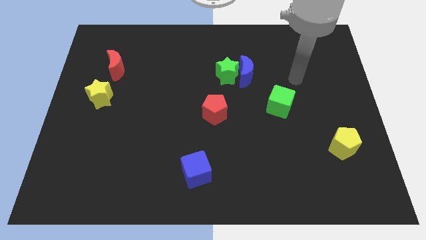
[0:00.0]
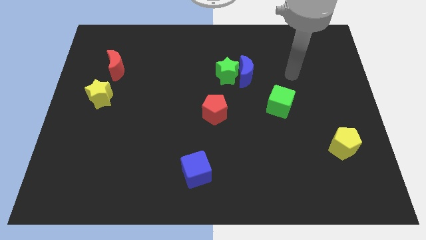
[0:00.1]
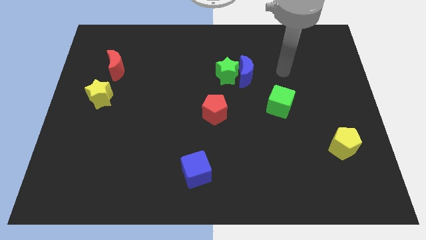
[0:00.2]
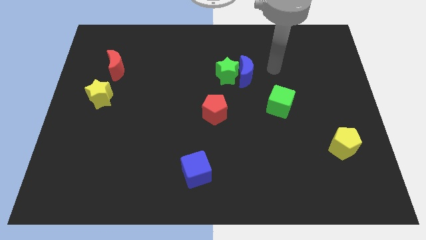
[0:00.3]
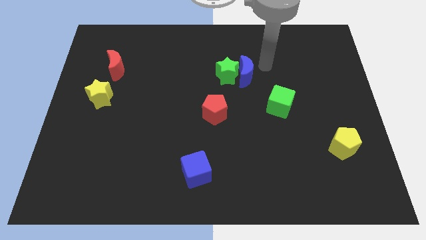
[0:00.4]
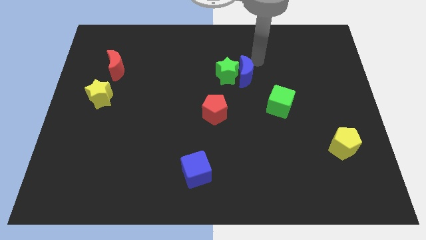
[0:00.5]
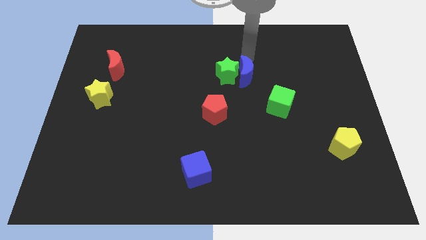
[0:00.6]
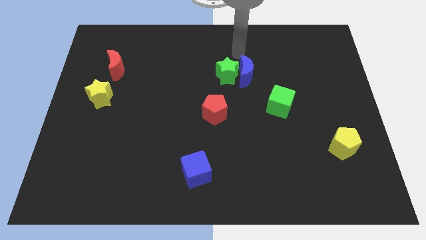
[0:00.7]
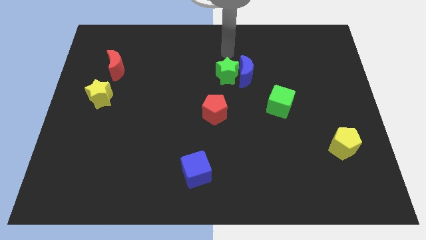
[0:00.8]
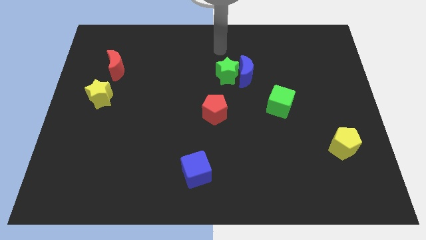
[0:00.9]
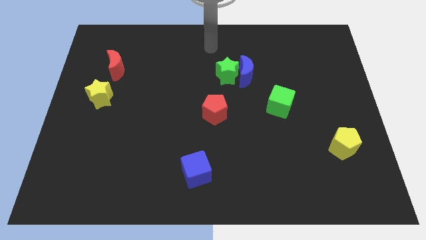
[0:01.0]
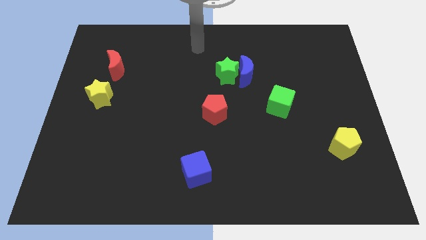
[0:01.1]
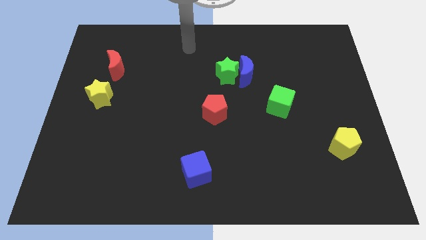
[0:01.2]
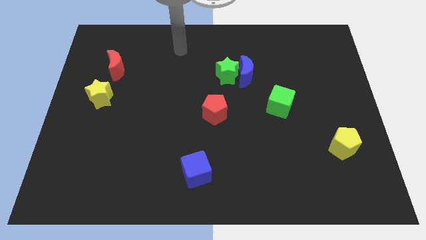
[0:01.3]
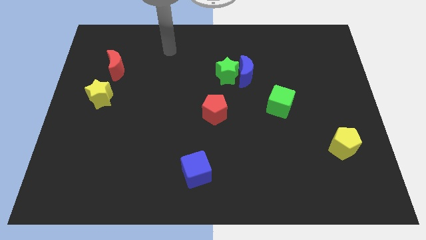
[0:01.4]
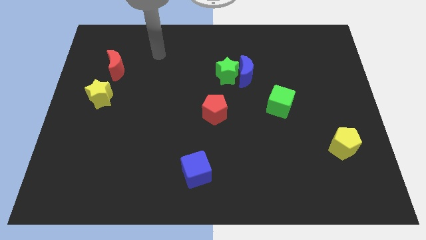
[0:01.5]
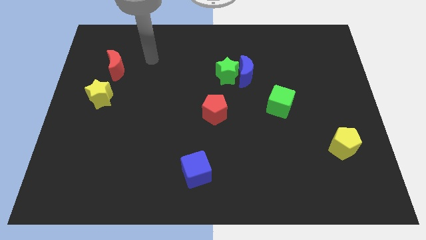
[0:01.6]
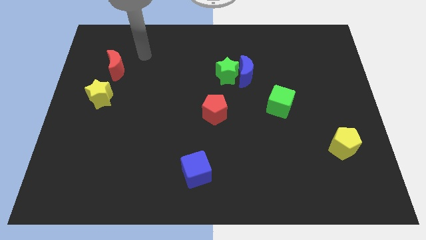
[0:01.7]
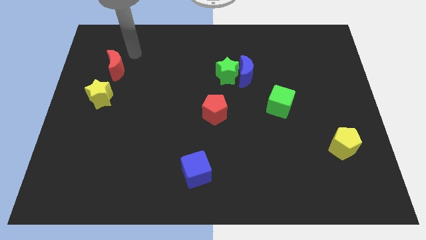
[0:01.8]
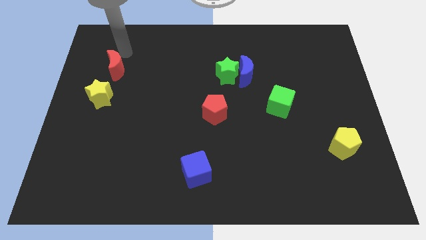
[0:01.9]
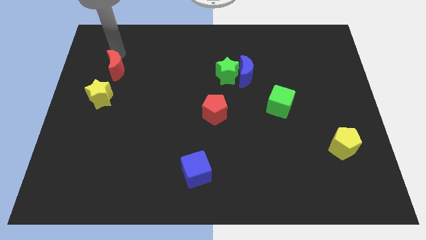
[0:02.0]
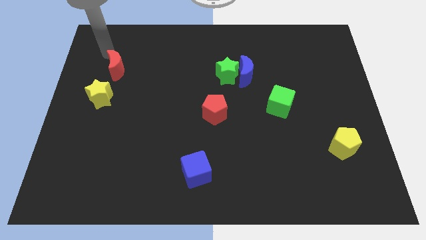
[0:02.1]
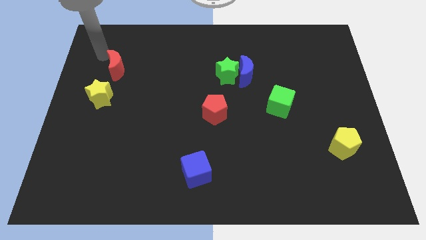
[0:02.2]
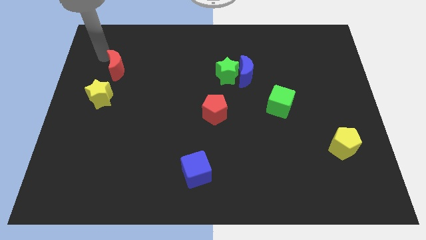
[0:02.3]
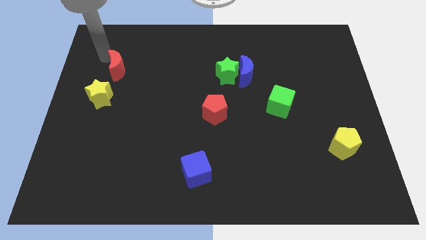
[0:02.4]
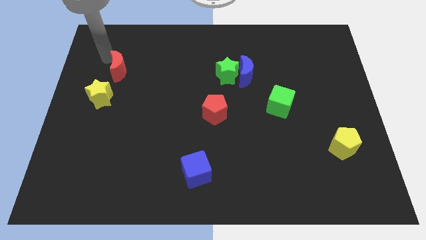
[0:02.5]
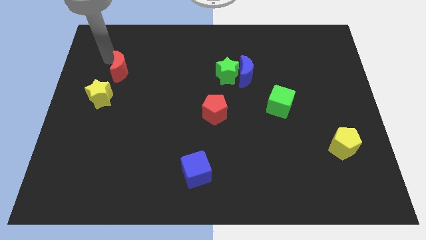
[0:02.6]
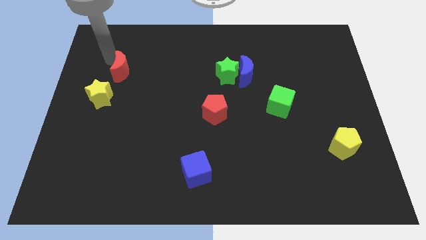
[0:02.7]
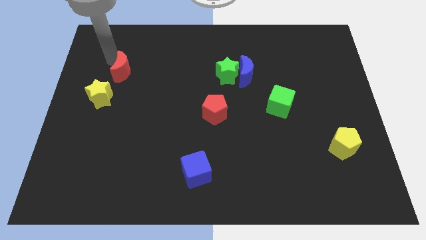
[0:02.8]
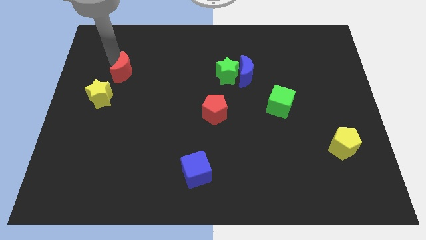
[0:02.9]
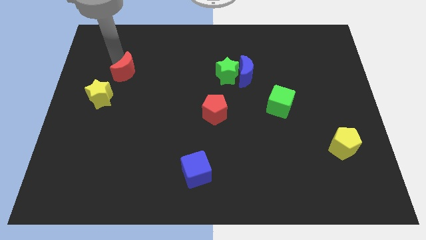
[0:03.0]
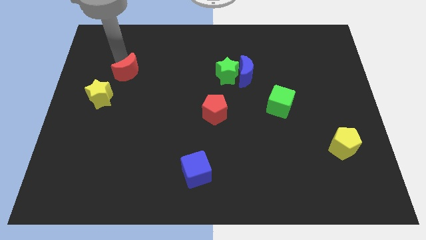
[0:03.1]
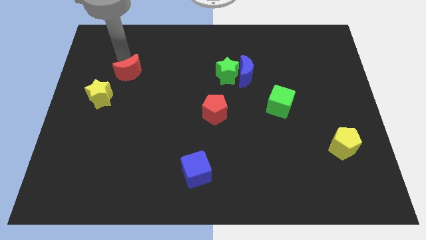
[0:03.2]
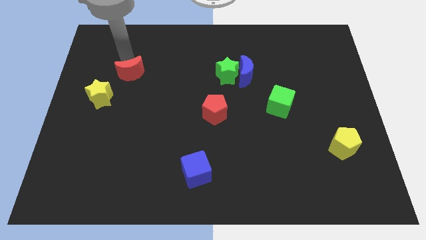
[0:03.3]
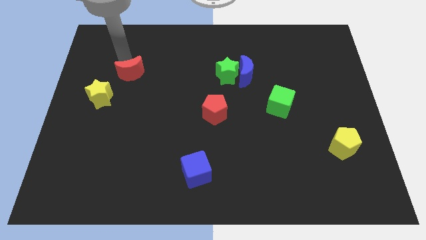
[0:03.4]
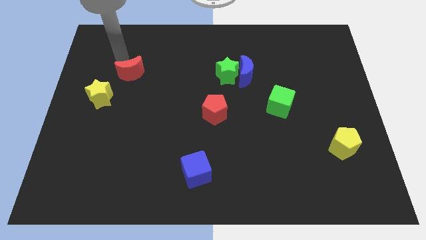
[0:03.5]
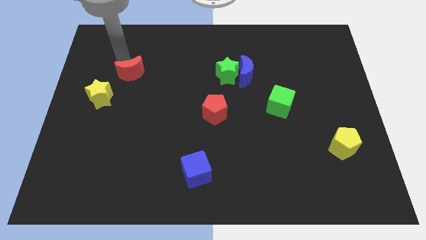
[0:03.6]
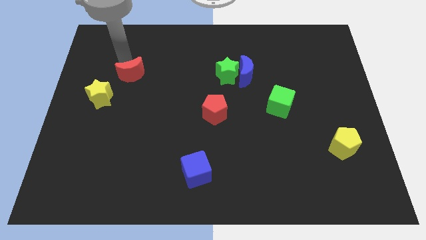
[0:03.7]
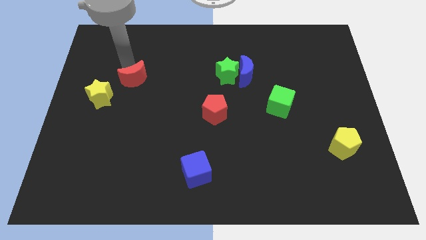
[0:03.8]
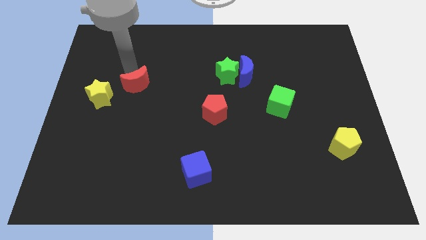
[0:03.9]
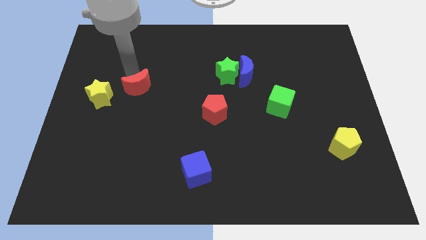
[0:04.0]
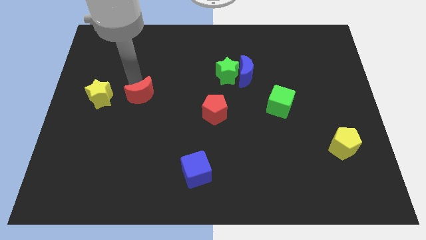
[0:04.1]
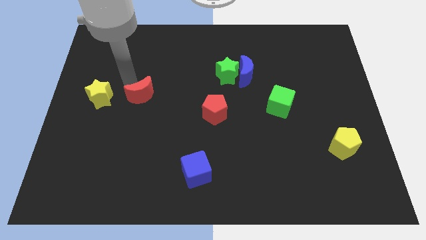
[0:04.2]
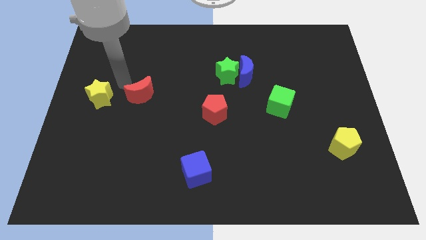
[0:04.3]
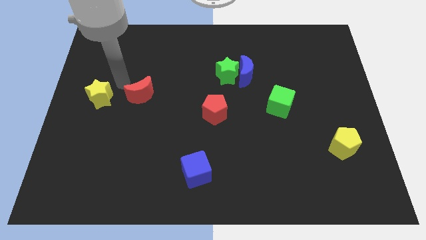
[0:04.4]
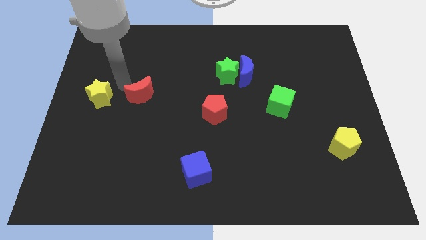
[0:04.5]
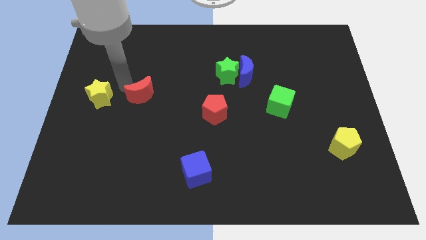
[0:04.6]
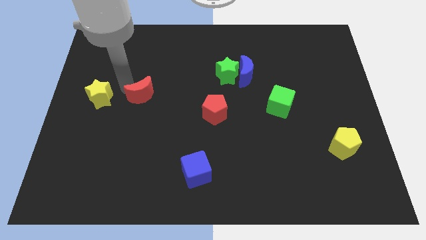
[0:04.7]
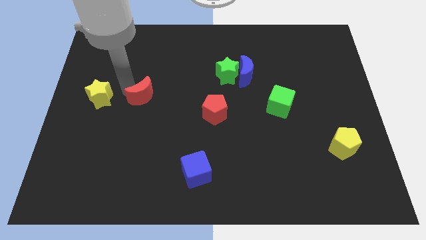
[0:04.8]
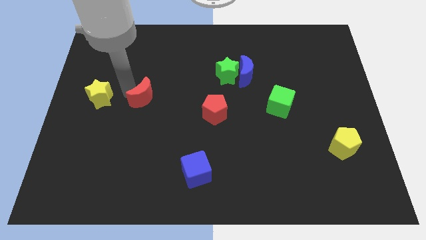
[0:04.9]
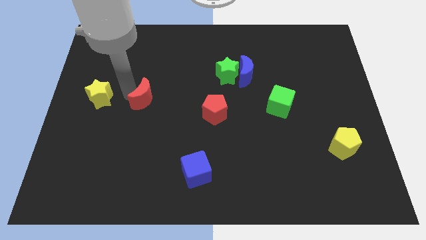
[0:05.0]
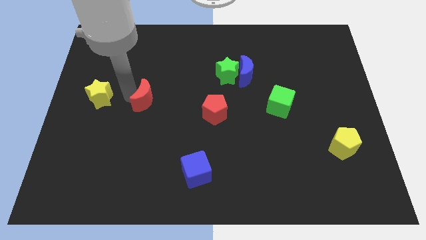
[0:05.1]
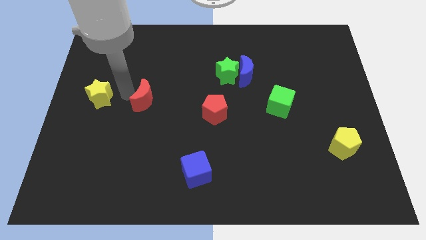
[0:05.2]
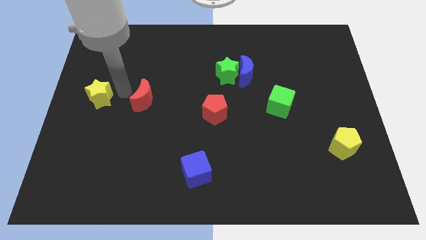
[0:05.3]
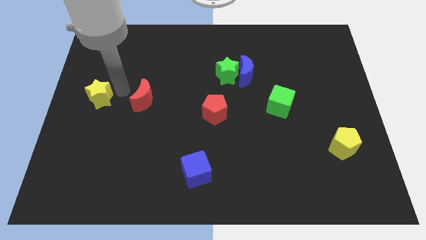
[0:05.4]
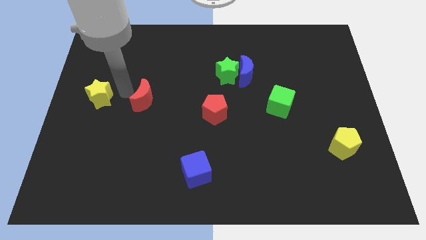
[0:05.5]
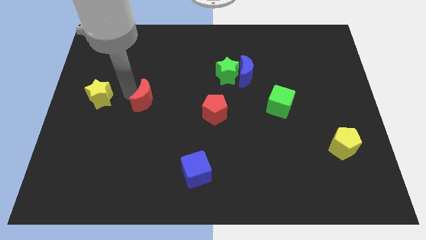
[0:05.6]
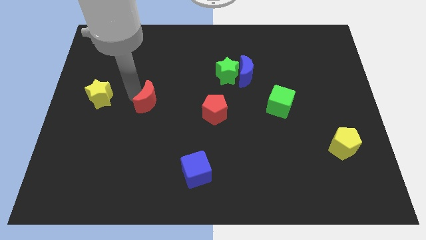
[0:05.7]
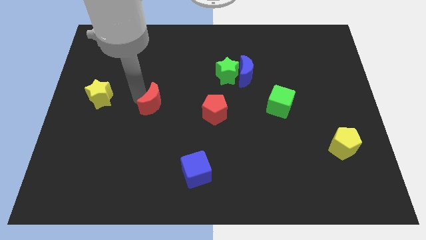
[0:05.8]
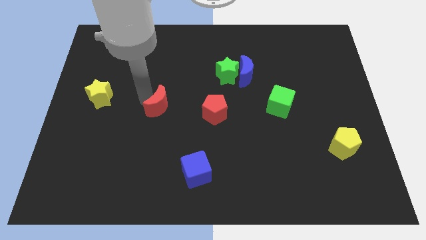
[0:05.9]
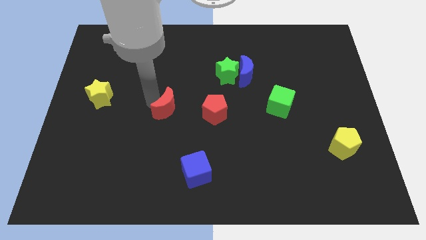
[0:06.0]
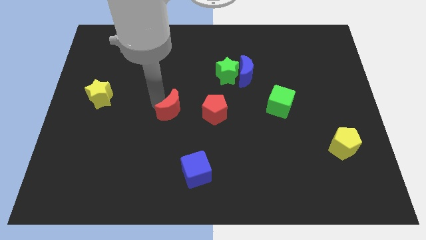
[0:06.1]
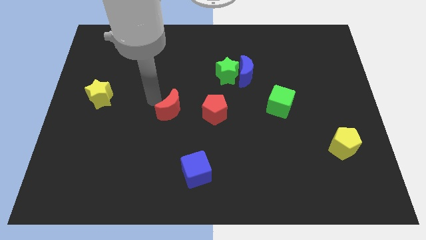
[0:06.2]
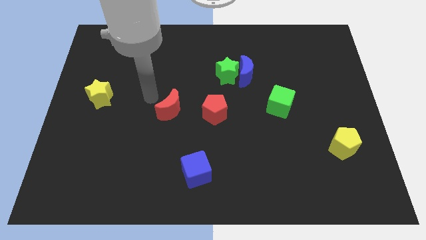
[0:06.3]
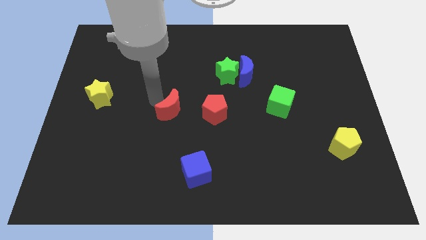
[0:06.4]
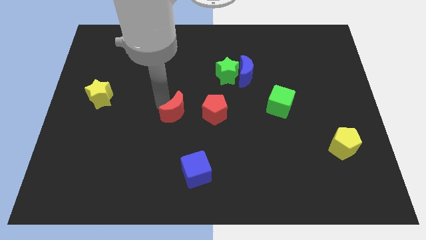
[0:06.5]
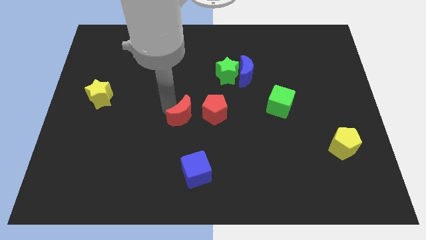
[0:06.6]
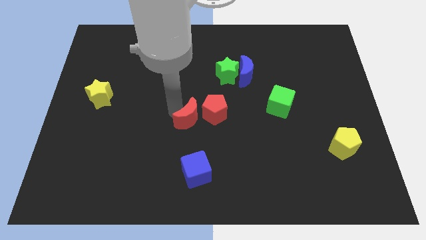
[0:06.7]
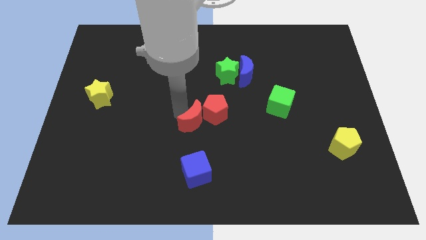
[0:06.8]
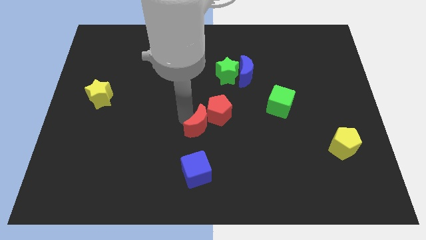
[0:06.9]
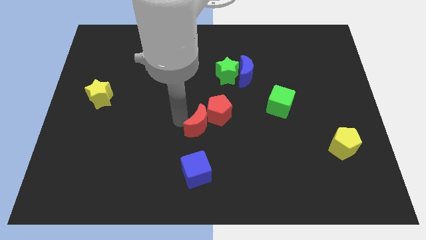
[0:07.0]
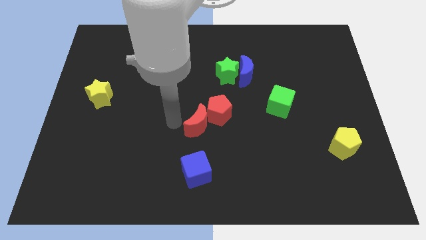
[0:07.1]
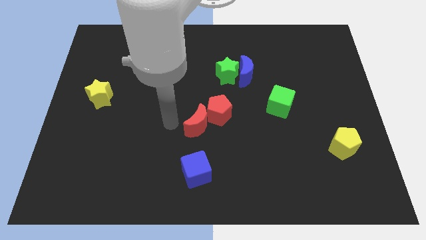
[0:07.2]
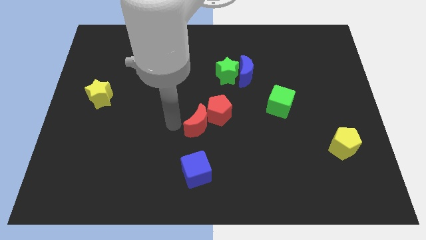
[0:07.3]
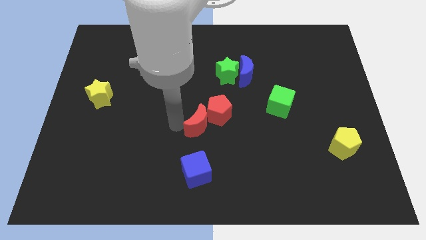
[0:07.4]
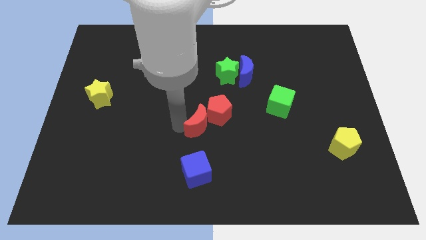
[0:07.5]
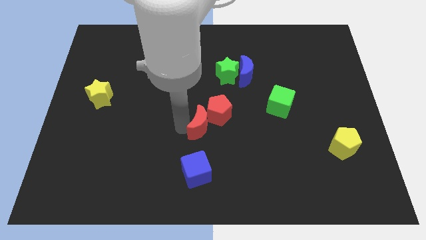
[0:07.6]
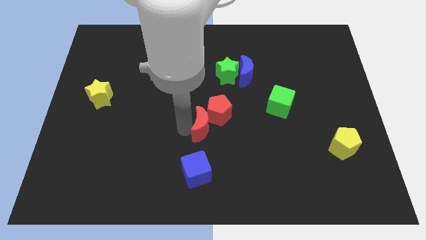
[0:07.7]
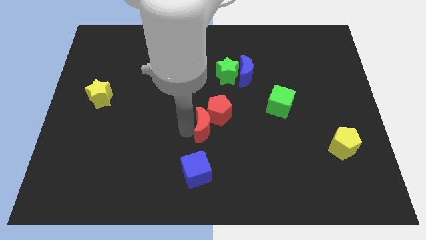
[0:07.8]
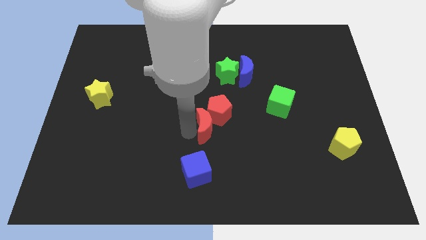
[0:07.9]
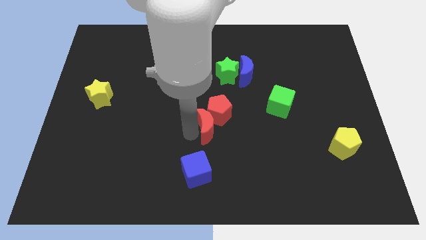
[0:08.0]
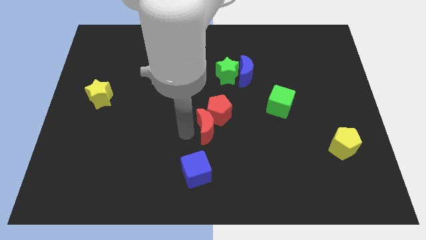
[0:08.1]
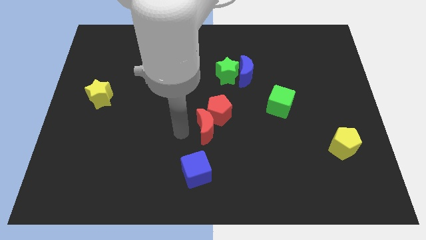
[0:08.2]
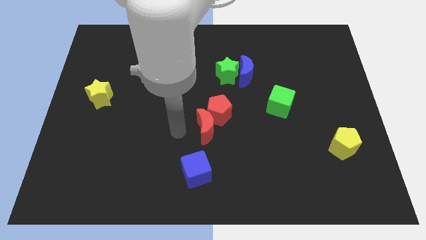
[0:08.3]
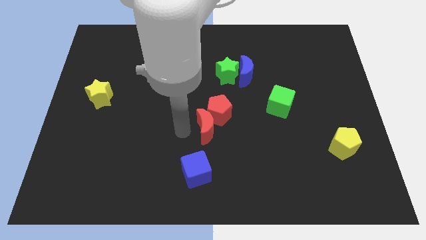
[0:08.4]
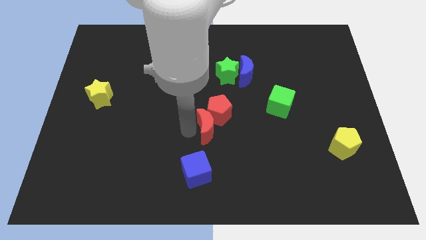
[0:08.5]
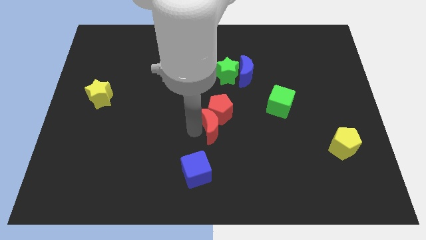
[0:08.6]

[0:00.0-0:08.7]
move the red moon to the bottom right side of the red pentagon
